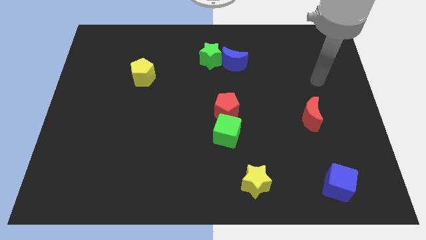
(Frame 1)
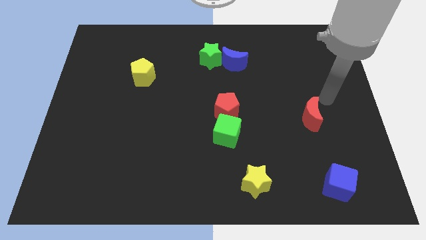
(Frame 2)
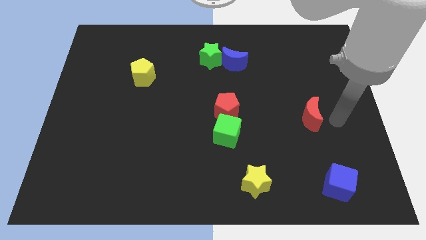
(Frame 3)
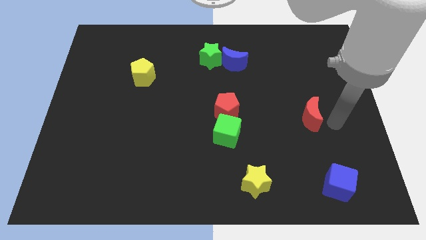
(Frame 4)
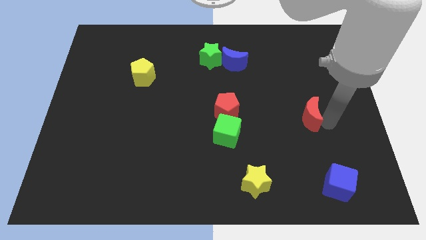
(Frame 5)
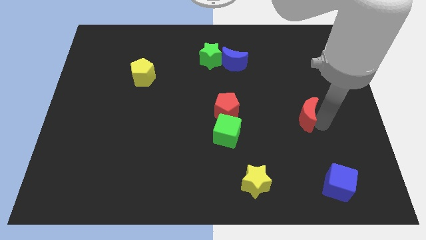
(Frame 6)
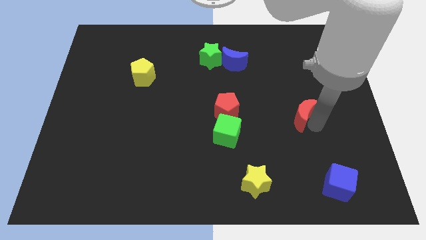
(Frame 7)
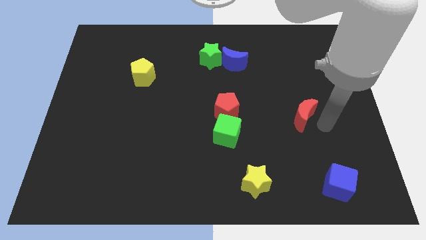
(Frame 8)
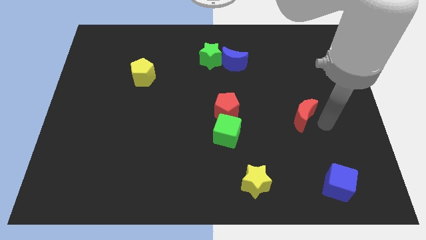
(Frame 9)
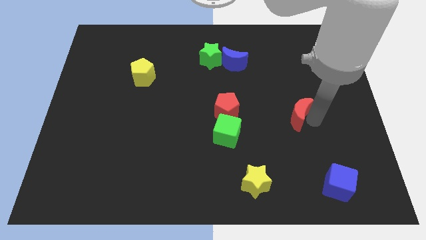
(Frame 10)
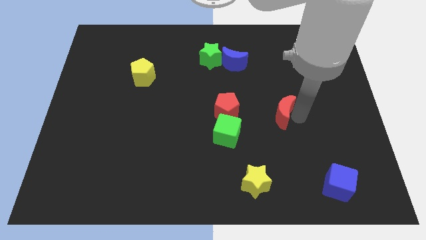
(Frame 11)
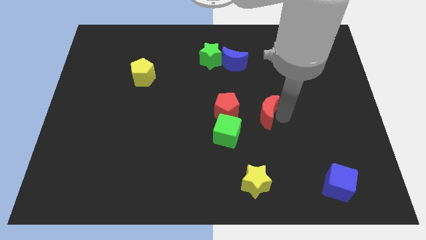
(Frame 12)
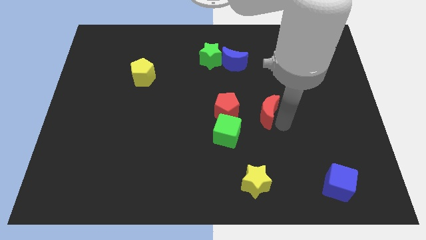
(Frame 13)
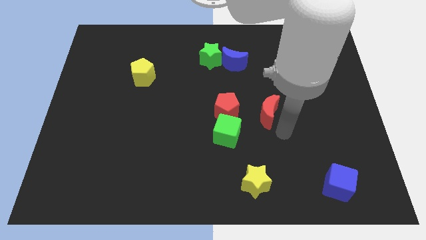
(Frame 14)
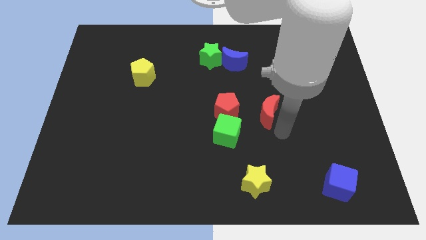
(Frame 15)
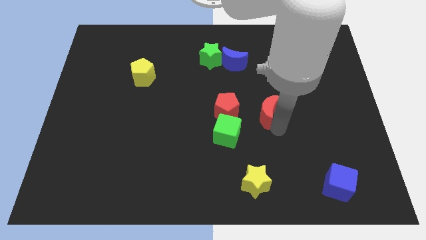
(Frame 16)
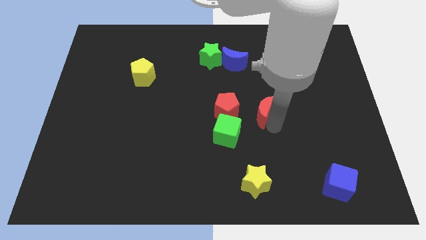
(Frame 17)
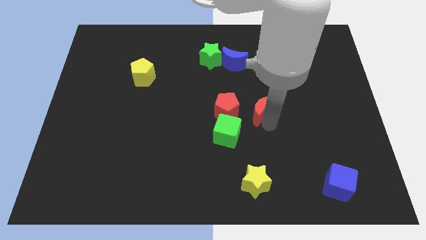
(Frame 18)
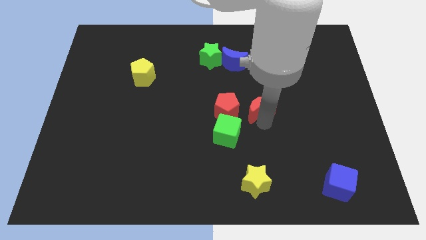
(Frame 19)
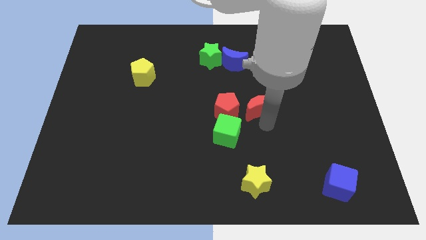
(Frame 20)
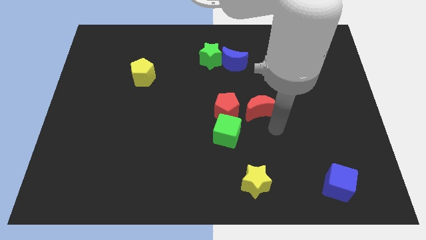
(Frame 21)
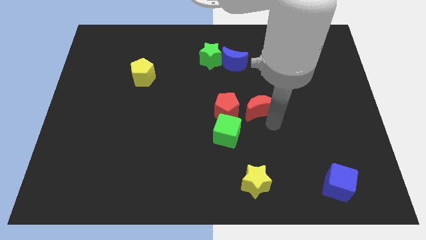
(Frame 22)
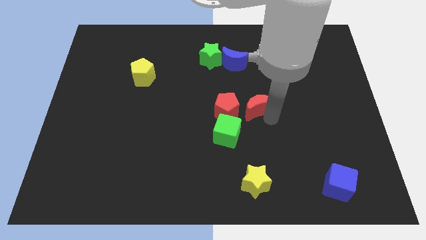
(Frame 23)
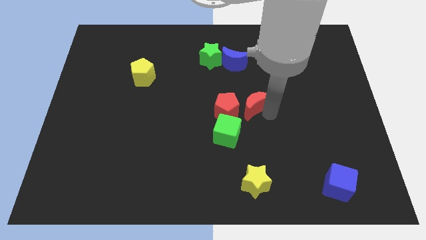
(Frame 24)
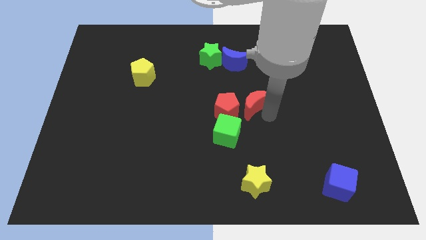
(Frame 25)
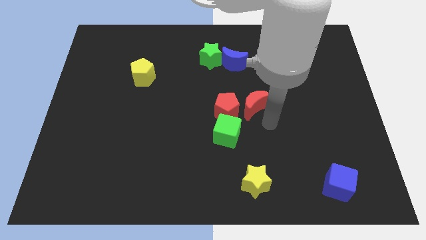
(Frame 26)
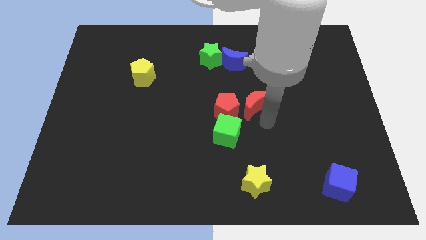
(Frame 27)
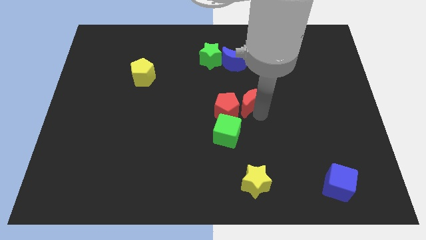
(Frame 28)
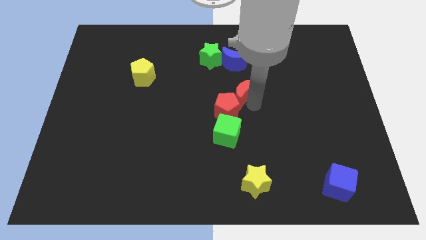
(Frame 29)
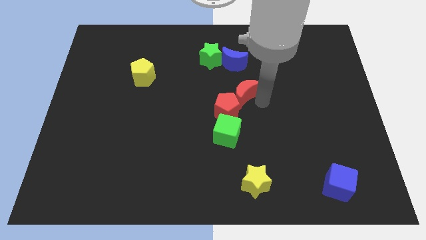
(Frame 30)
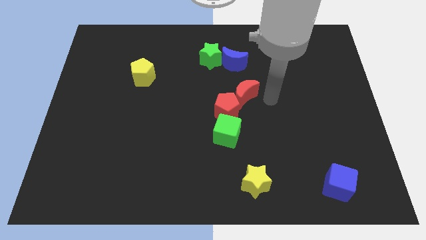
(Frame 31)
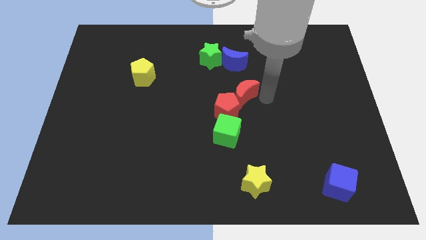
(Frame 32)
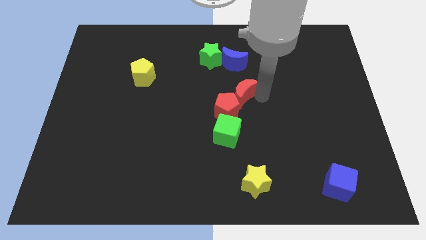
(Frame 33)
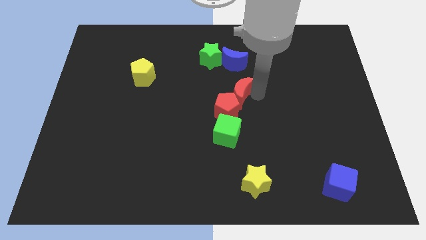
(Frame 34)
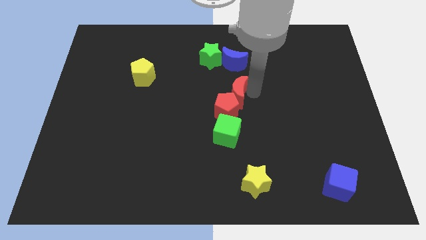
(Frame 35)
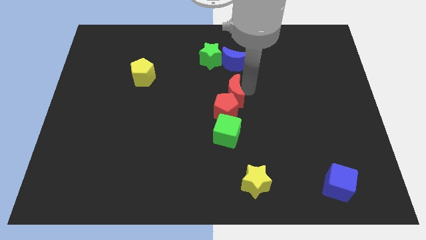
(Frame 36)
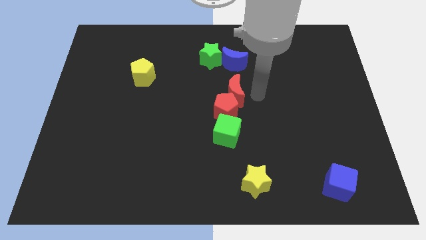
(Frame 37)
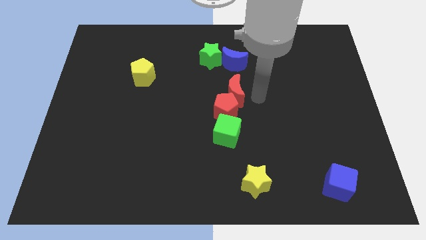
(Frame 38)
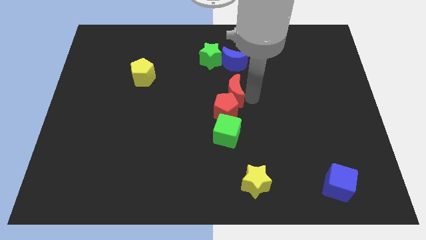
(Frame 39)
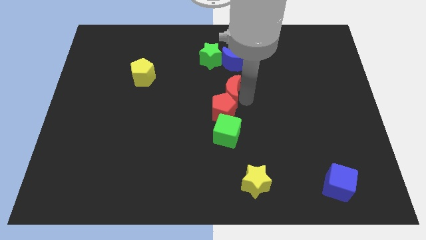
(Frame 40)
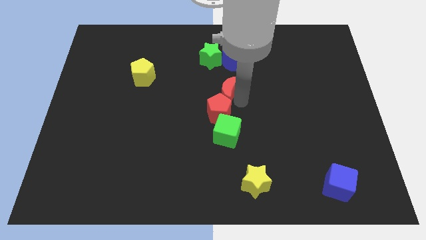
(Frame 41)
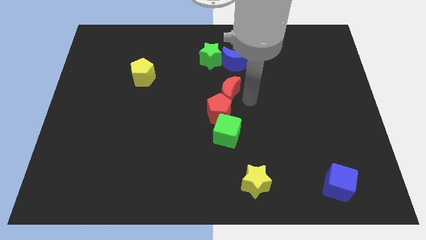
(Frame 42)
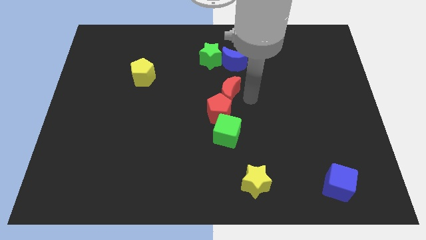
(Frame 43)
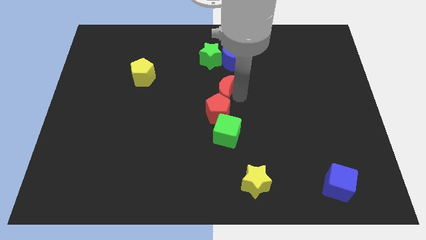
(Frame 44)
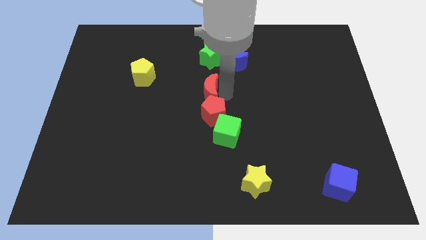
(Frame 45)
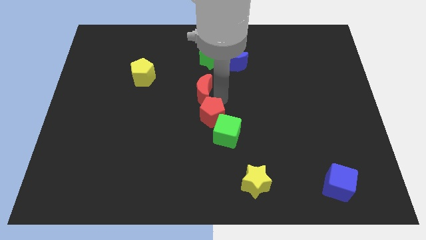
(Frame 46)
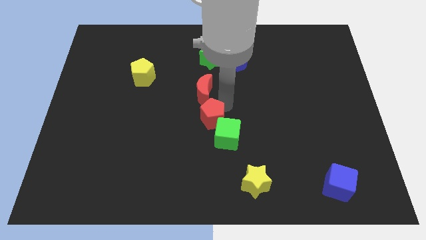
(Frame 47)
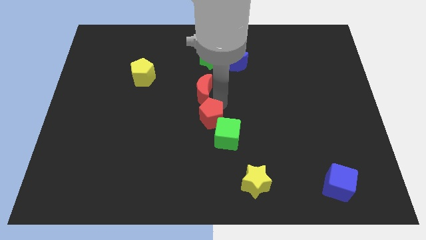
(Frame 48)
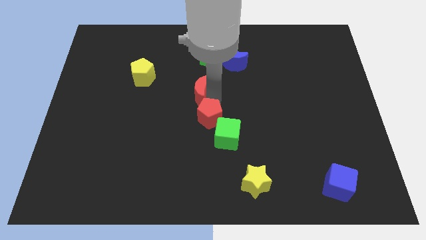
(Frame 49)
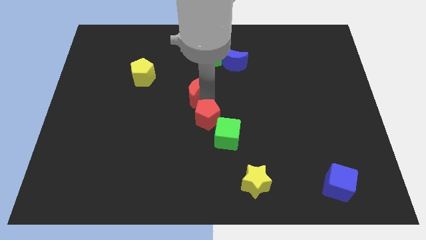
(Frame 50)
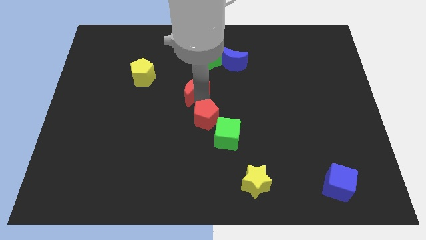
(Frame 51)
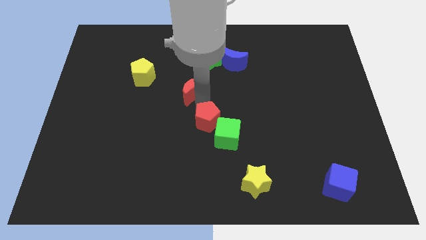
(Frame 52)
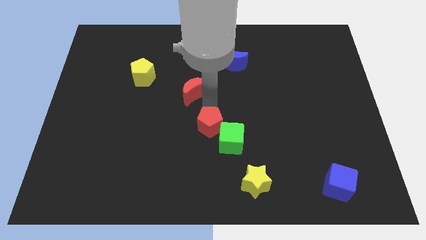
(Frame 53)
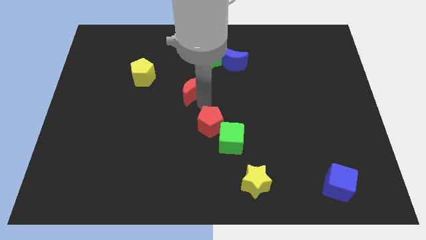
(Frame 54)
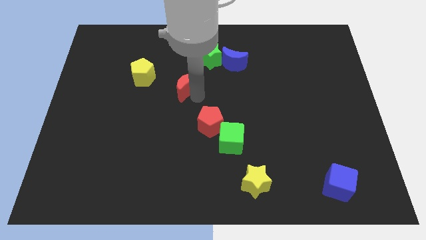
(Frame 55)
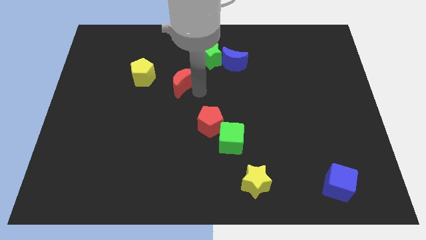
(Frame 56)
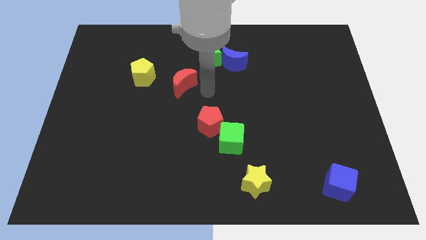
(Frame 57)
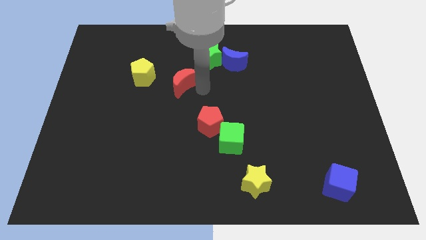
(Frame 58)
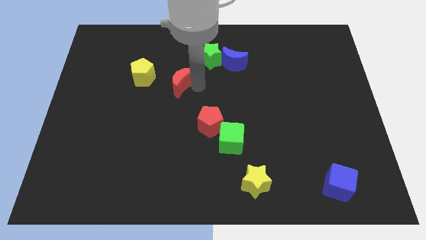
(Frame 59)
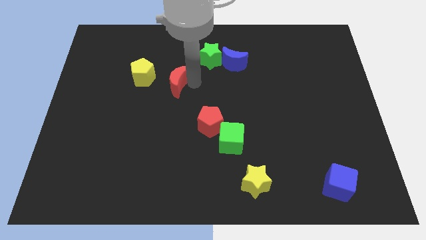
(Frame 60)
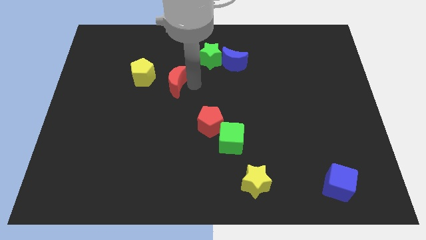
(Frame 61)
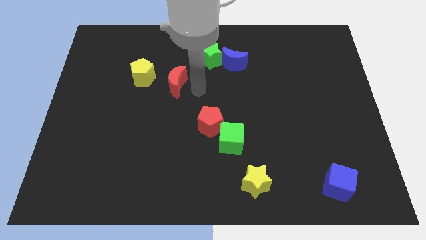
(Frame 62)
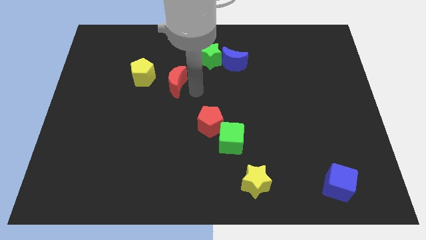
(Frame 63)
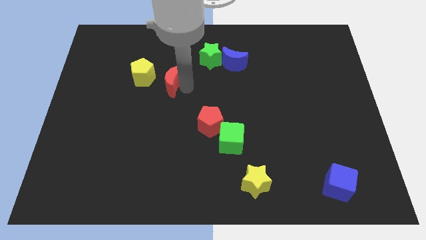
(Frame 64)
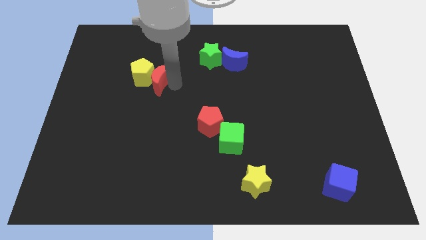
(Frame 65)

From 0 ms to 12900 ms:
put the red moon close to the yellow pentagon

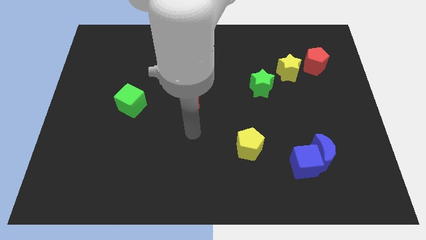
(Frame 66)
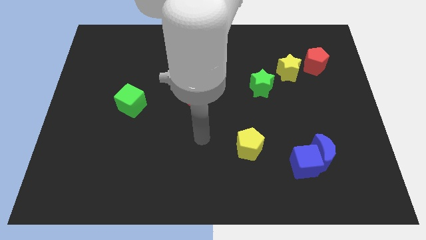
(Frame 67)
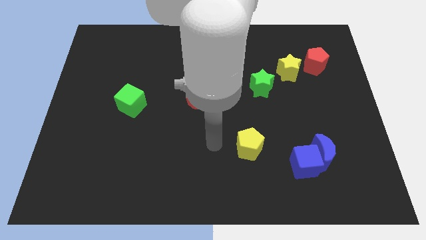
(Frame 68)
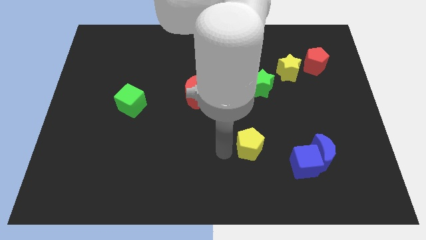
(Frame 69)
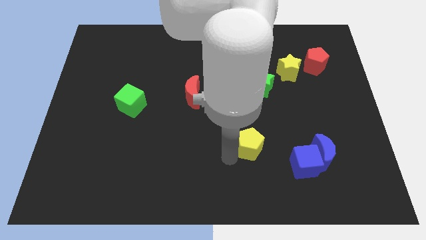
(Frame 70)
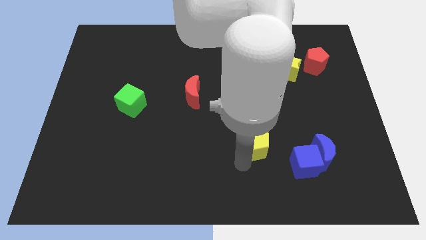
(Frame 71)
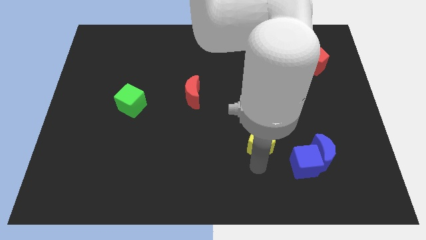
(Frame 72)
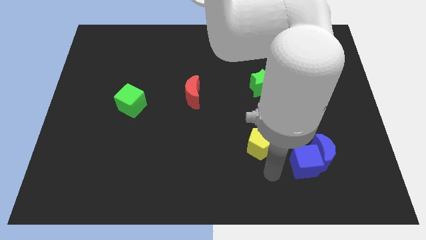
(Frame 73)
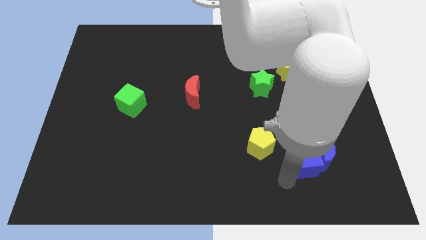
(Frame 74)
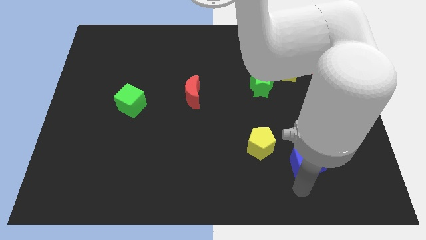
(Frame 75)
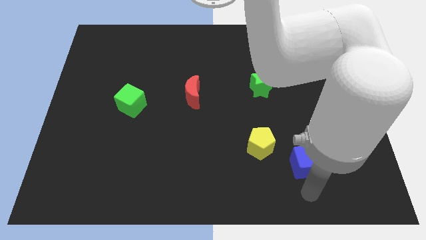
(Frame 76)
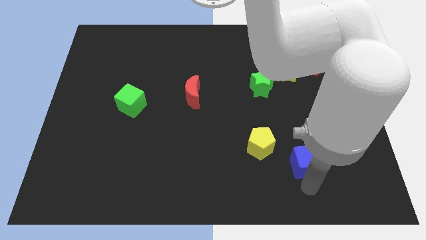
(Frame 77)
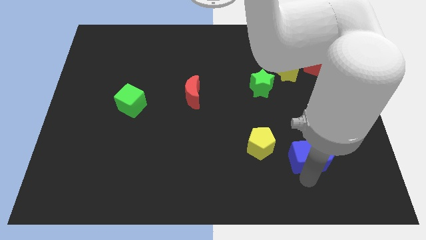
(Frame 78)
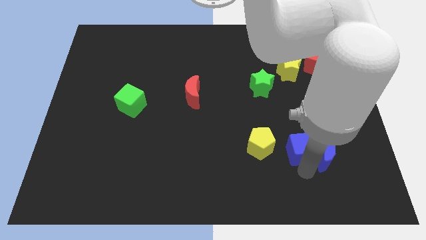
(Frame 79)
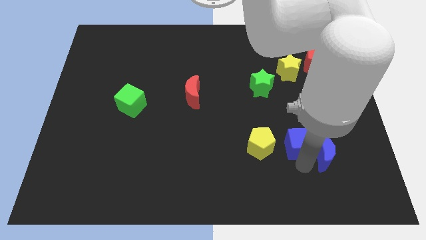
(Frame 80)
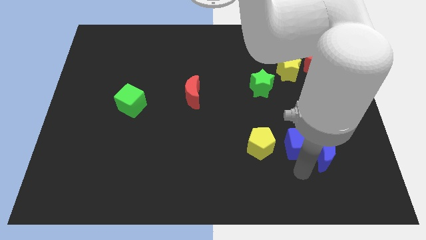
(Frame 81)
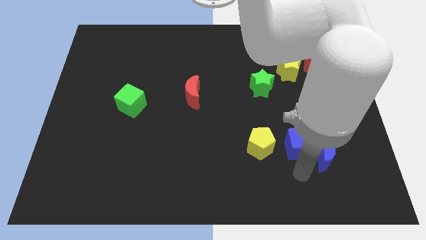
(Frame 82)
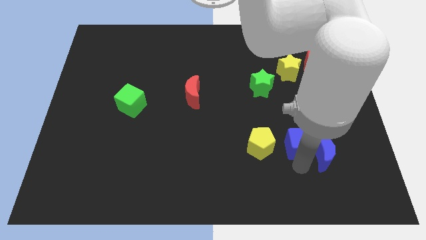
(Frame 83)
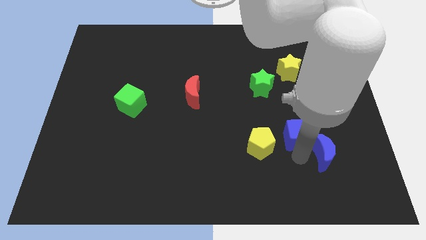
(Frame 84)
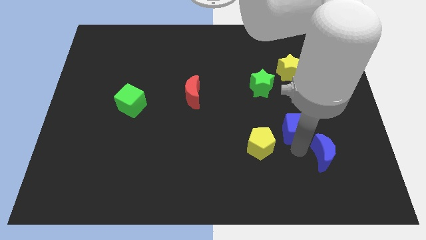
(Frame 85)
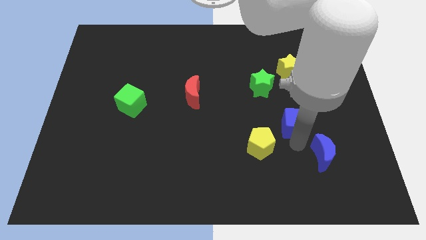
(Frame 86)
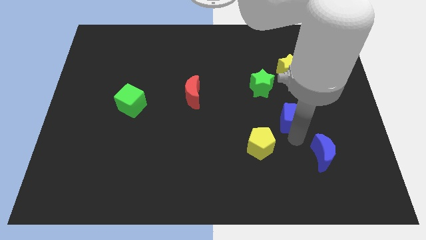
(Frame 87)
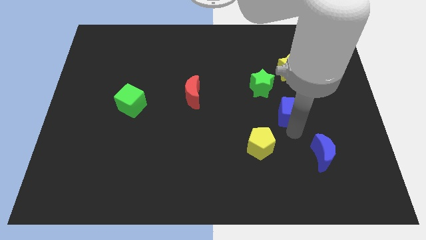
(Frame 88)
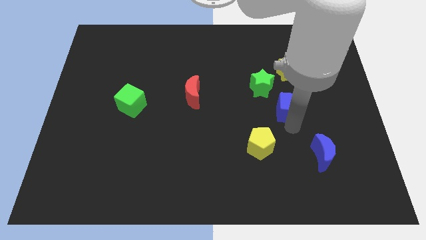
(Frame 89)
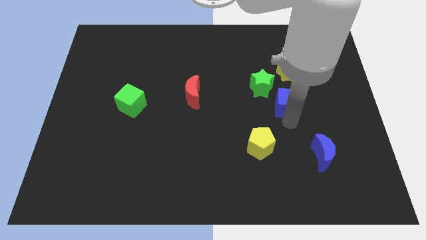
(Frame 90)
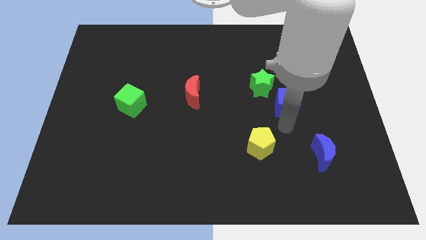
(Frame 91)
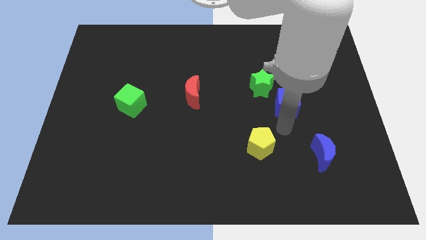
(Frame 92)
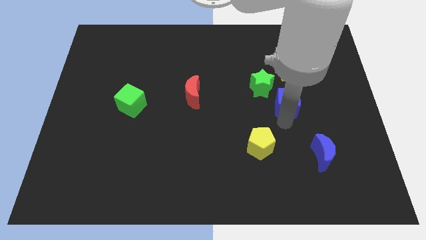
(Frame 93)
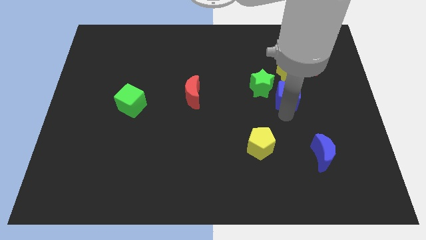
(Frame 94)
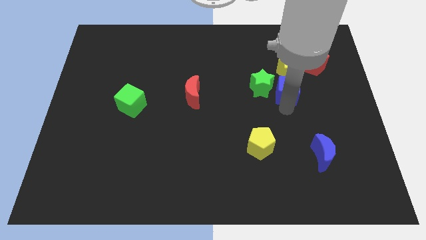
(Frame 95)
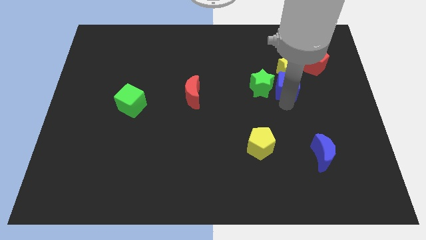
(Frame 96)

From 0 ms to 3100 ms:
push the blue cube next to the yellow star
